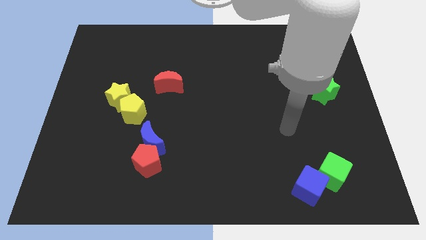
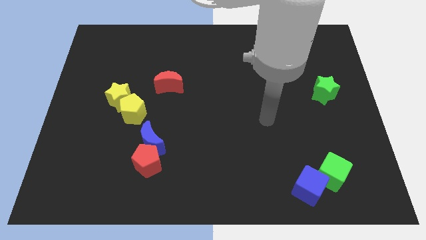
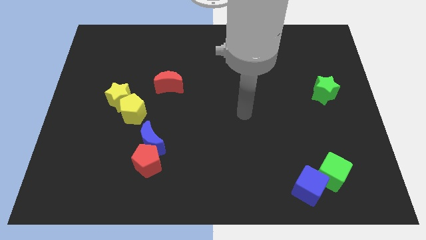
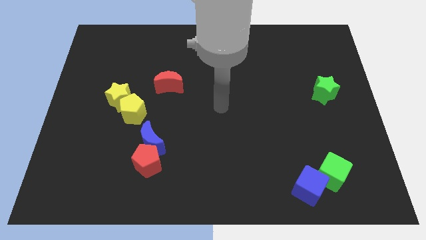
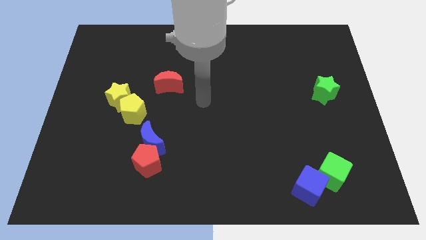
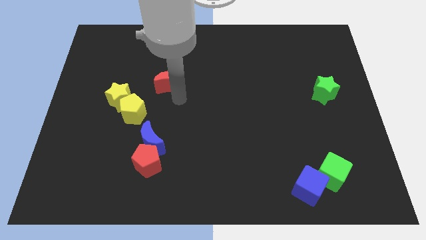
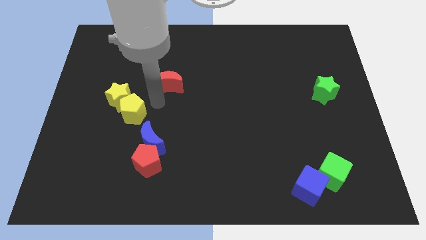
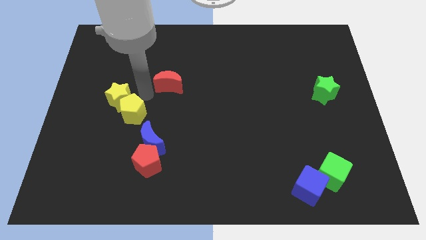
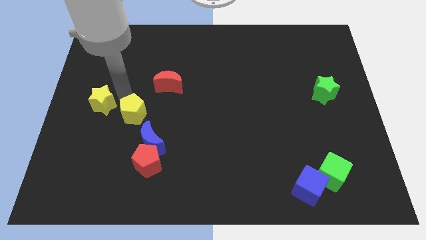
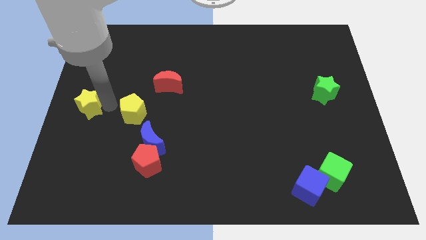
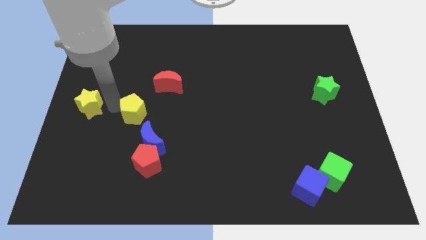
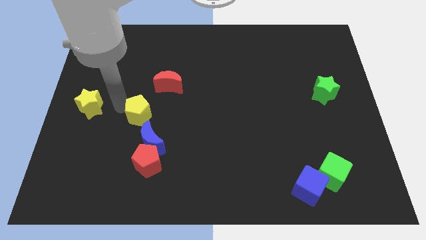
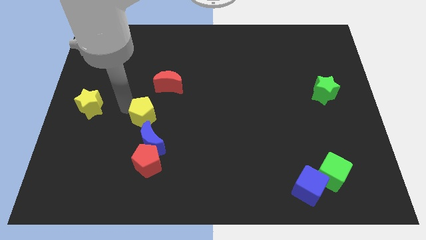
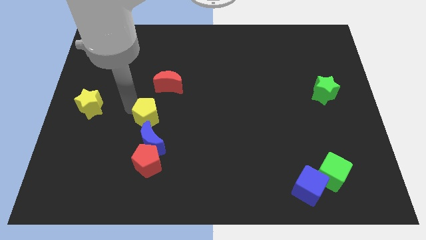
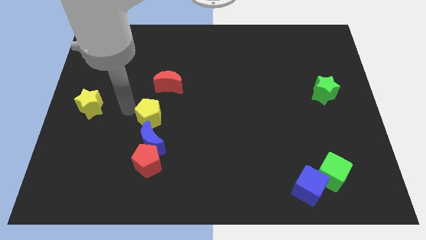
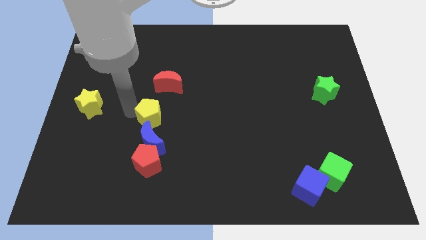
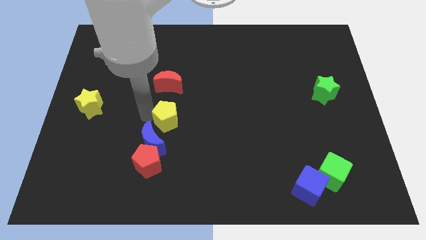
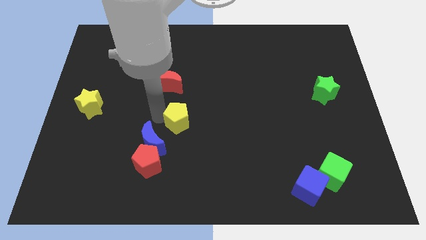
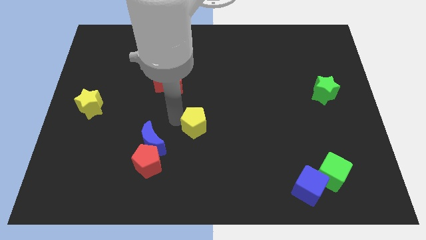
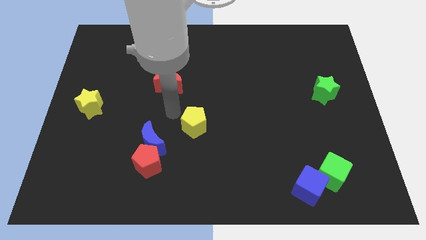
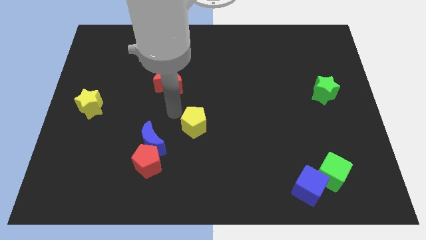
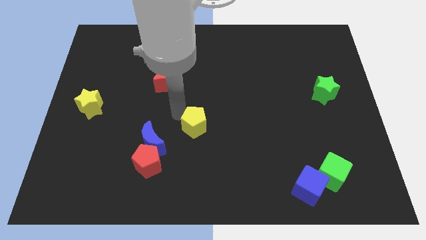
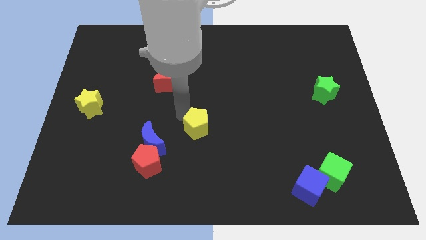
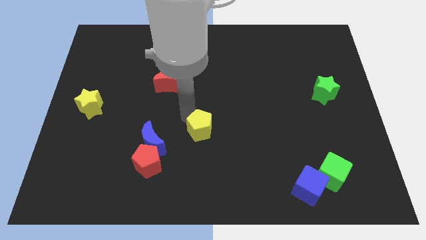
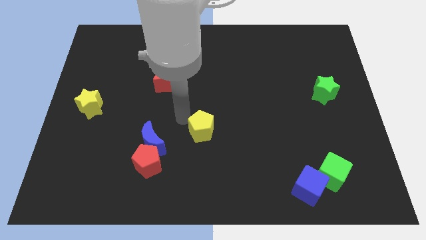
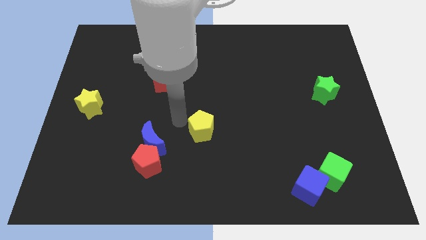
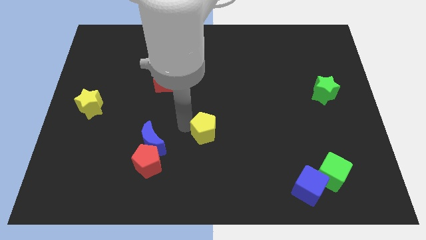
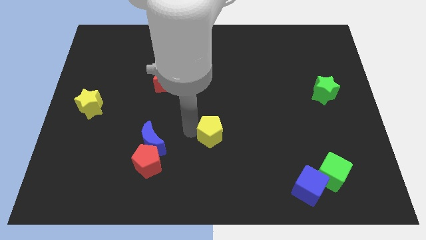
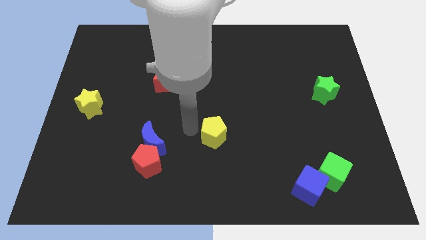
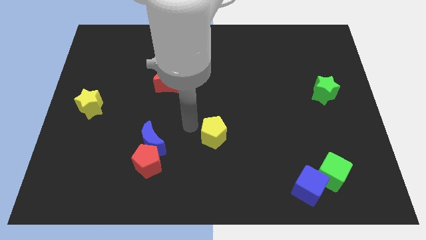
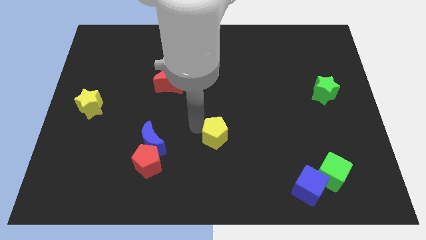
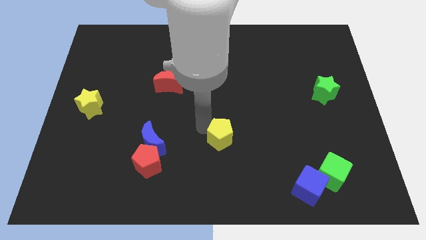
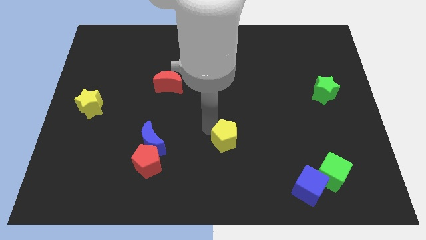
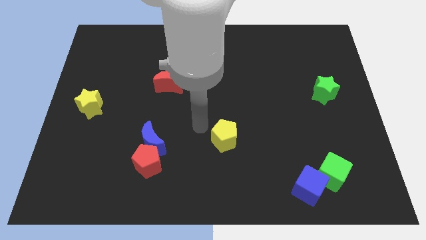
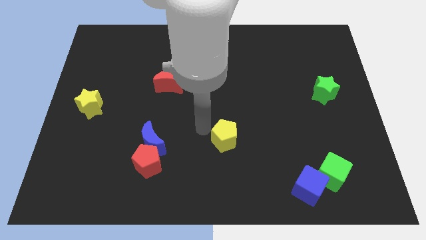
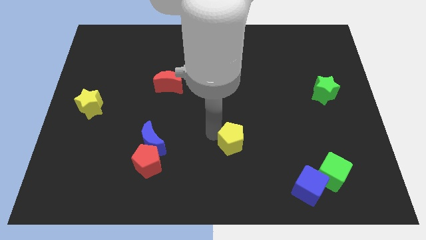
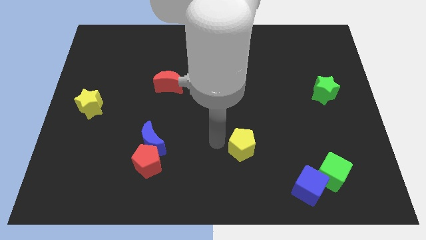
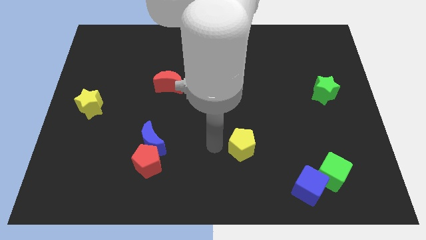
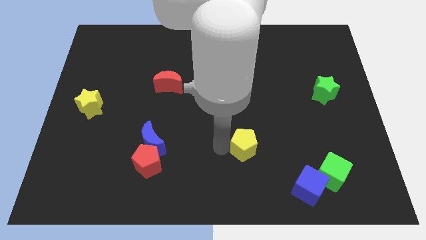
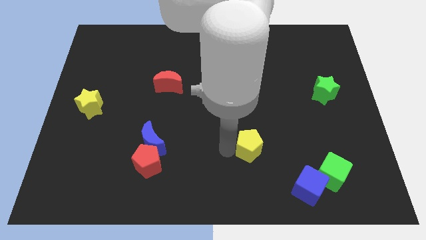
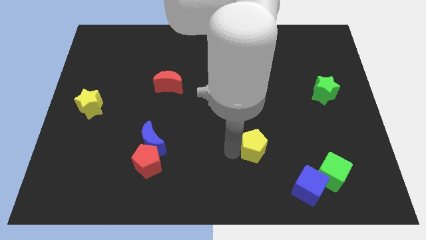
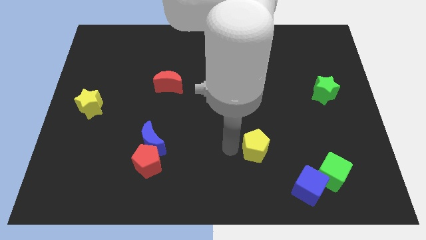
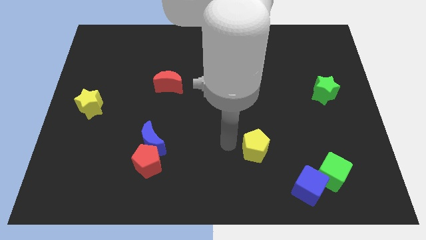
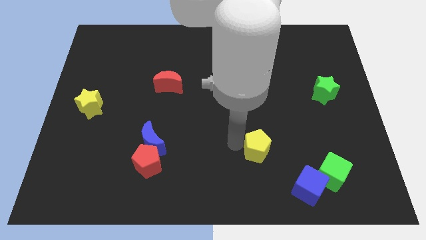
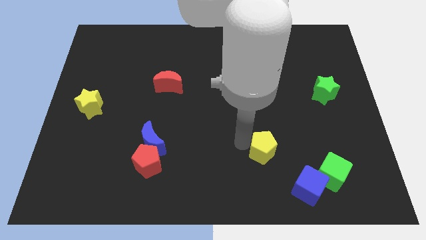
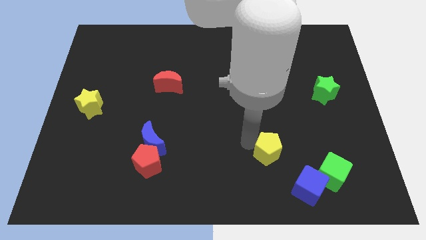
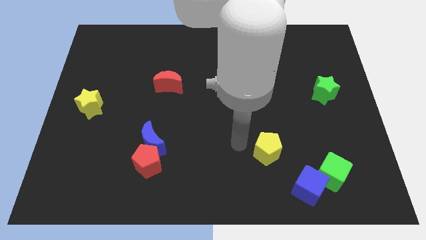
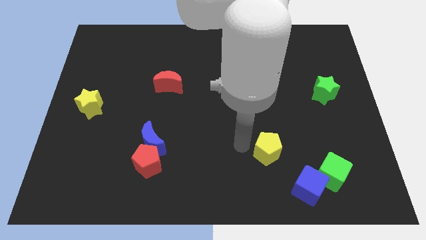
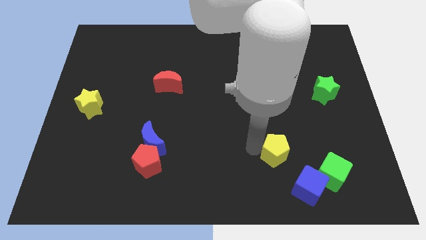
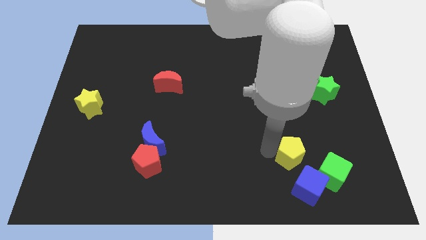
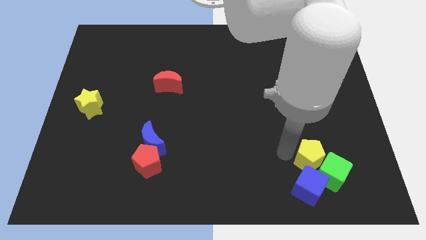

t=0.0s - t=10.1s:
push the yellow pentagon next to the green cube

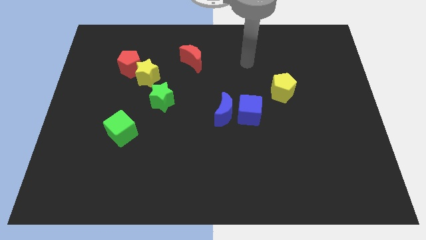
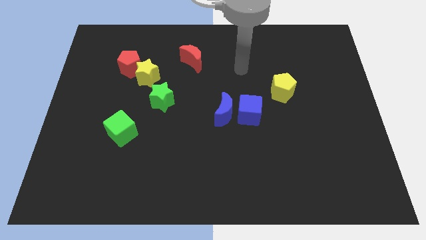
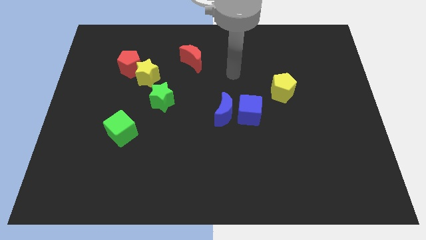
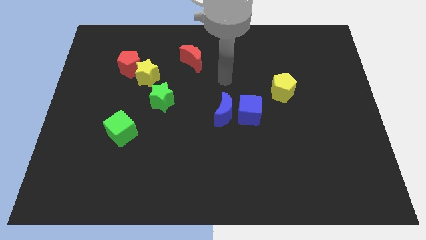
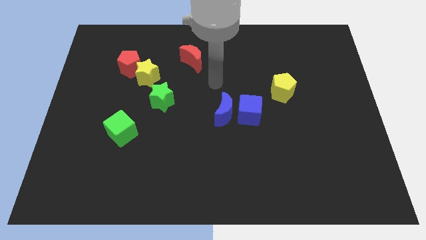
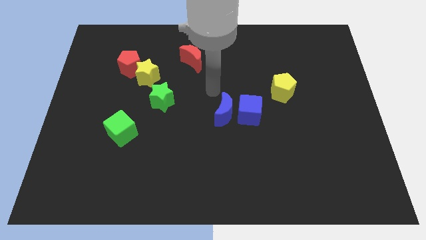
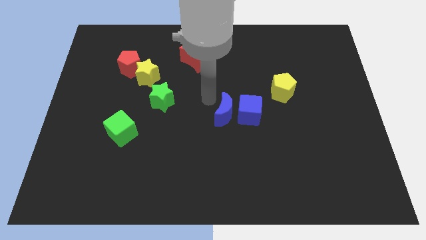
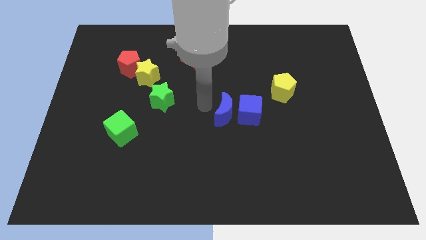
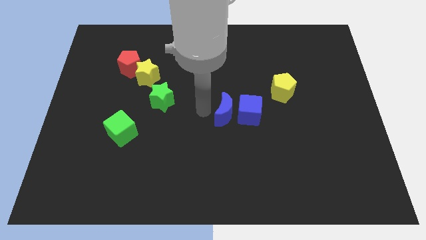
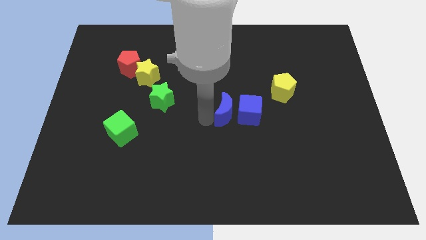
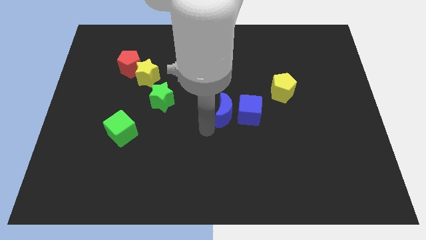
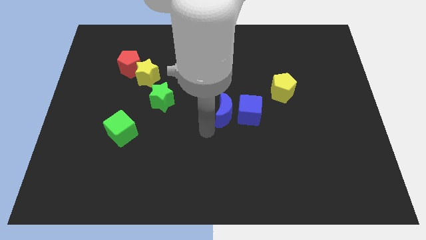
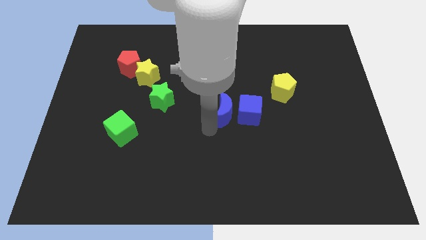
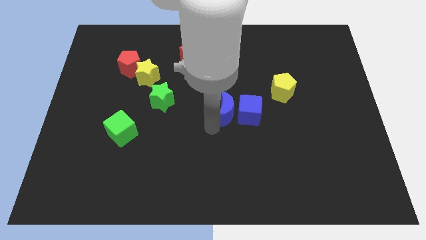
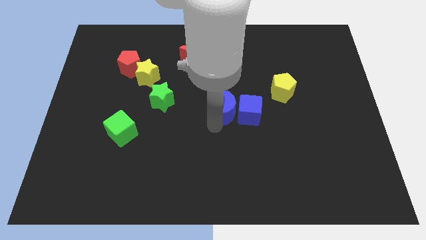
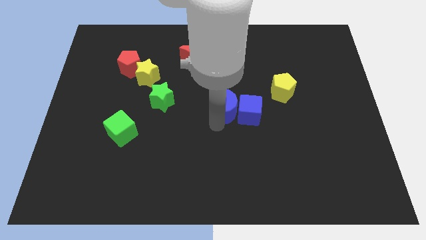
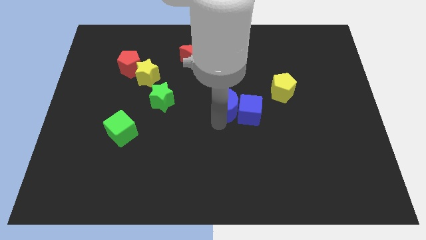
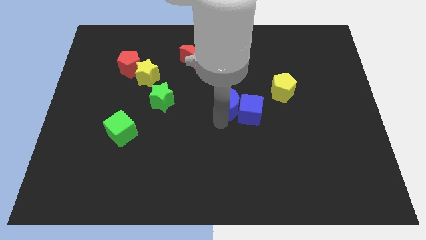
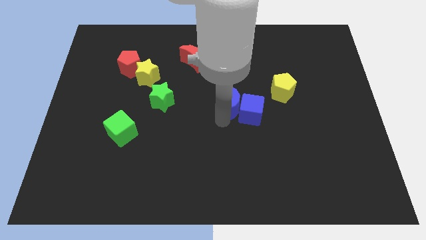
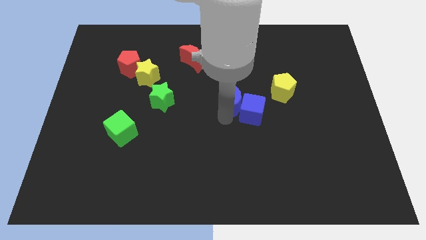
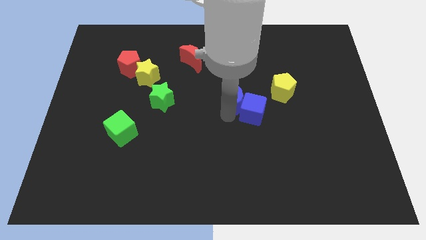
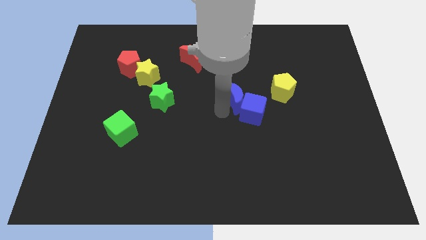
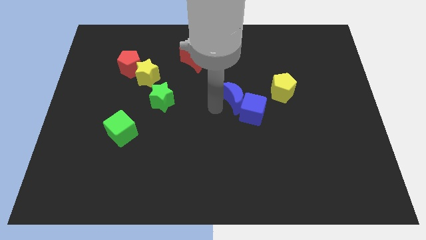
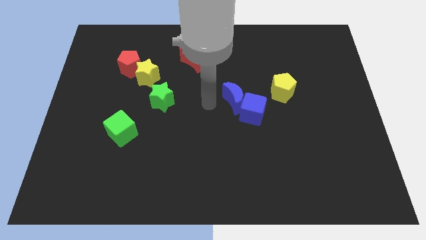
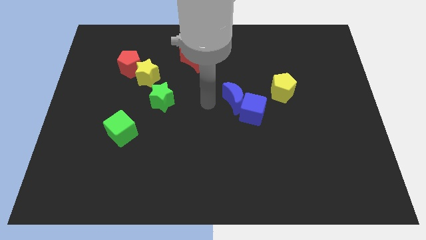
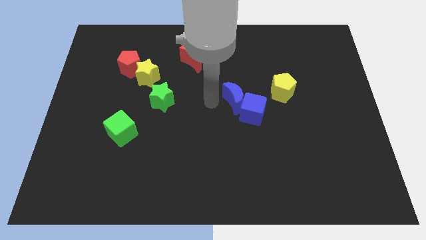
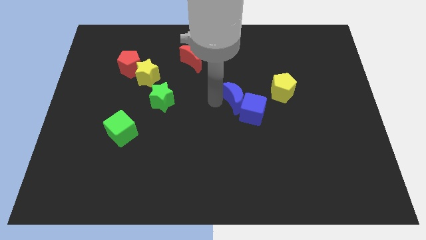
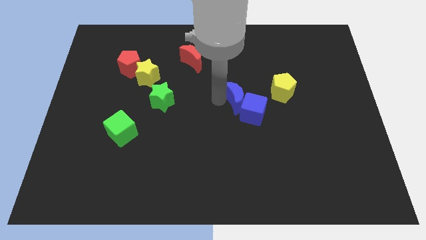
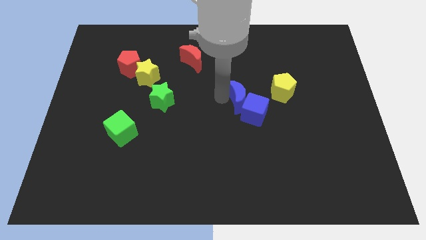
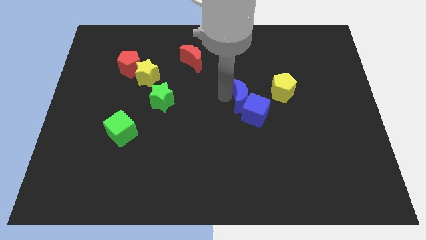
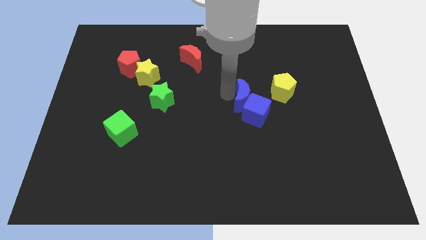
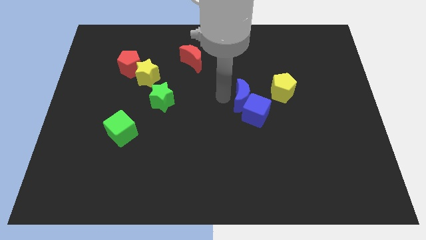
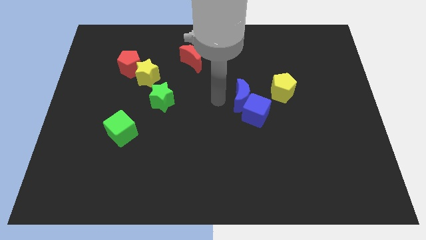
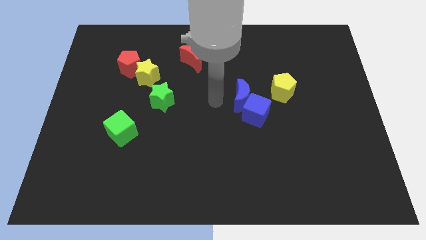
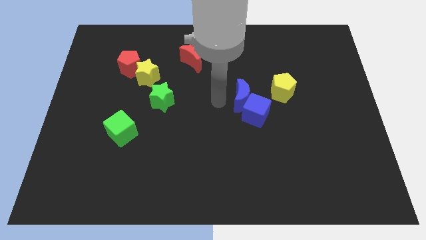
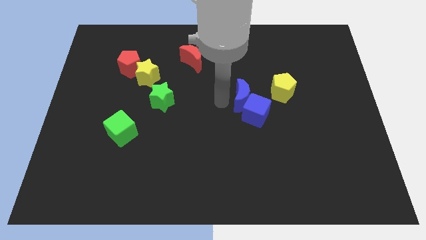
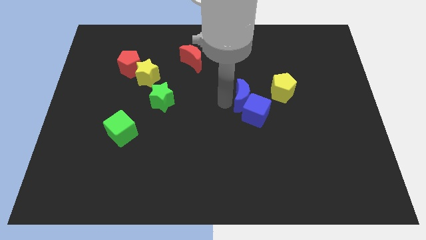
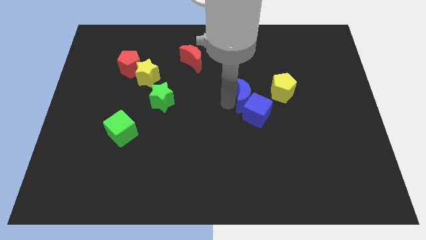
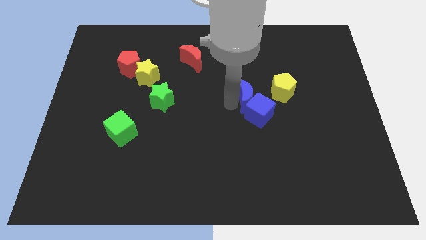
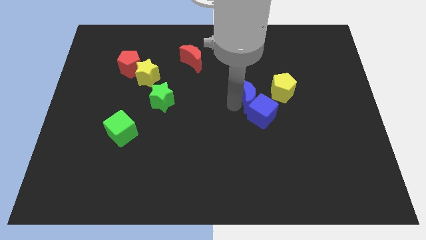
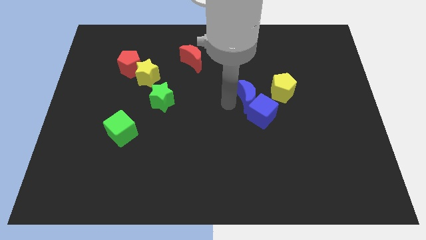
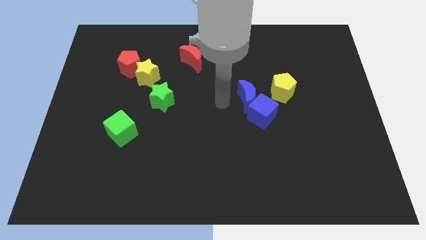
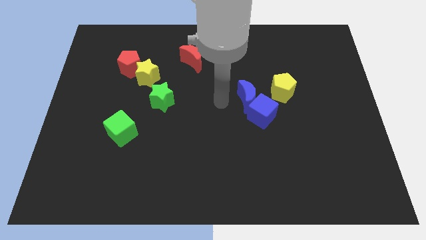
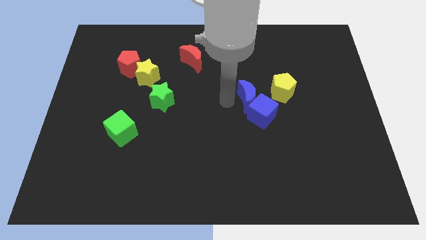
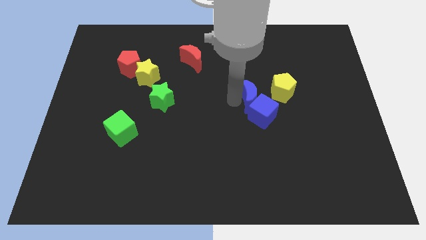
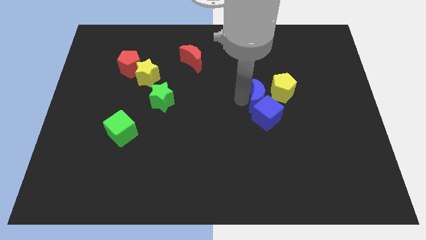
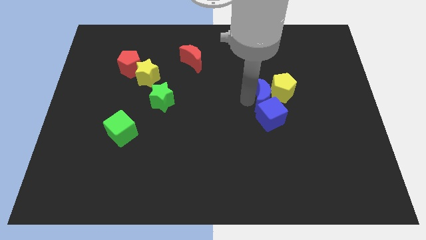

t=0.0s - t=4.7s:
push the blue moon towards the yellow pentagon
